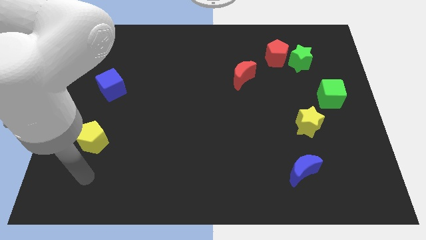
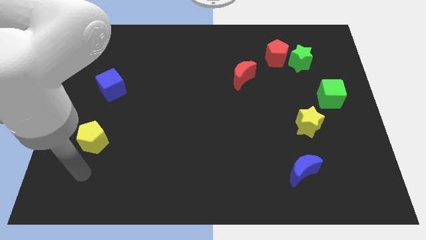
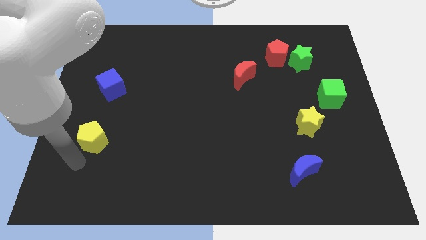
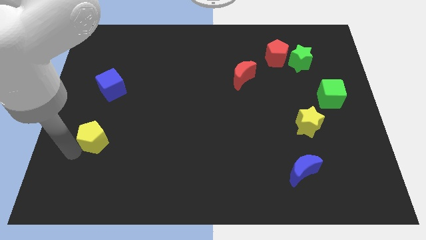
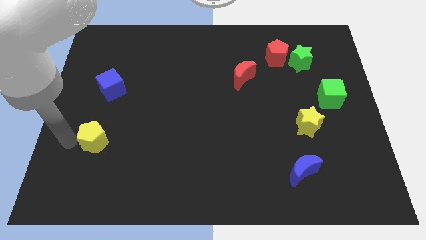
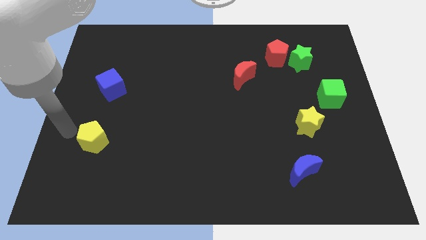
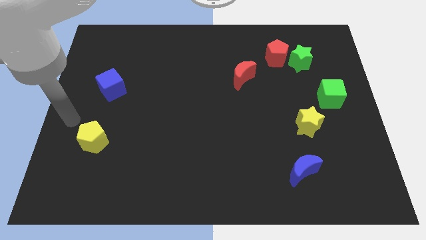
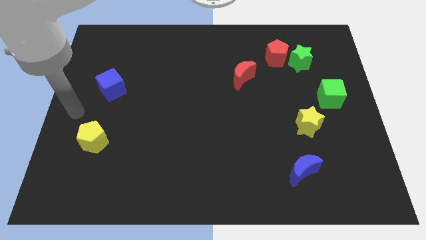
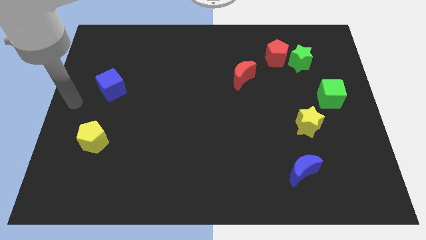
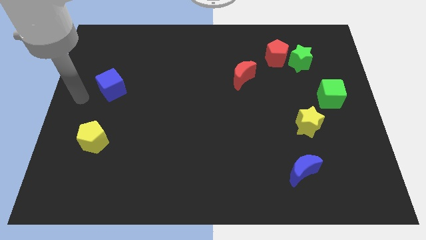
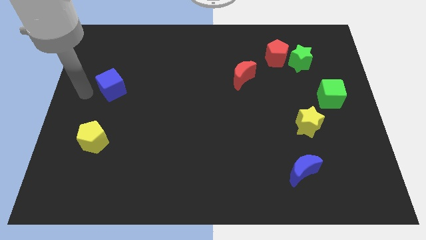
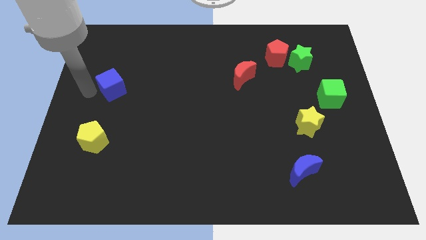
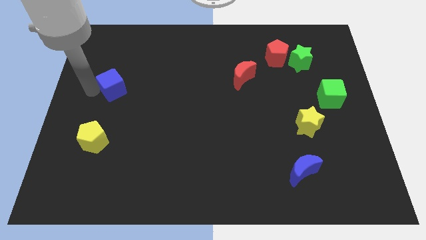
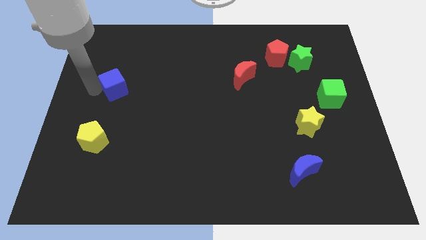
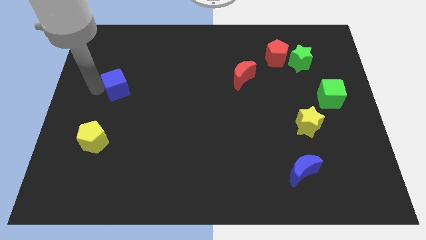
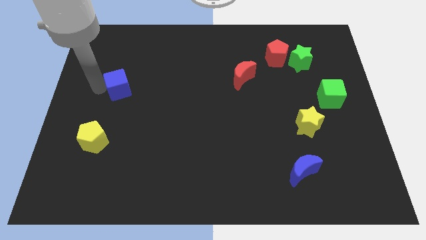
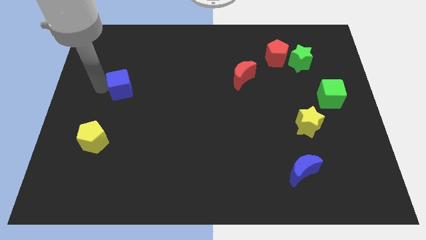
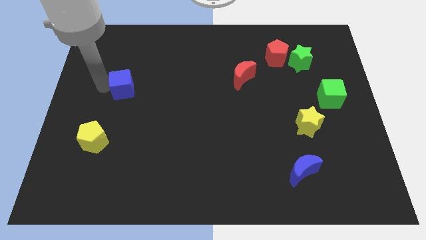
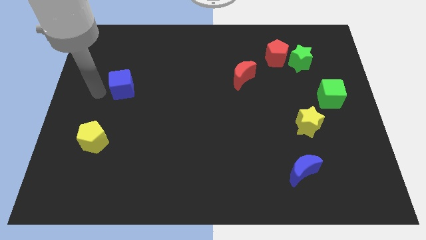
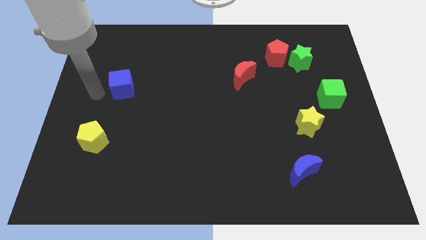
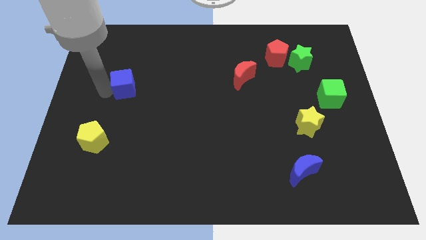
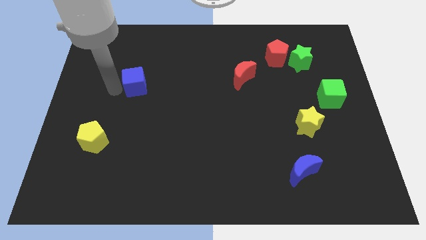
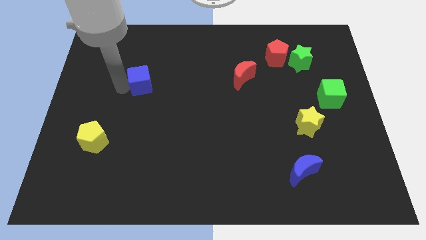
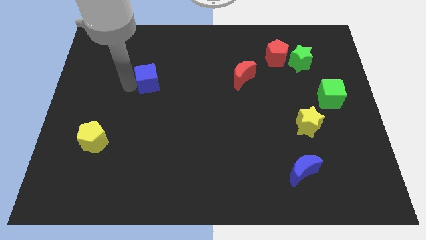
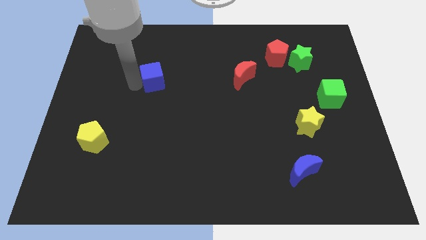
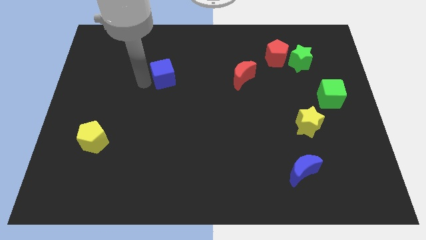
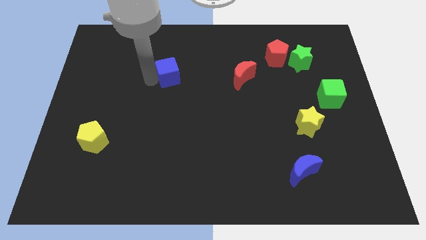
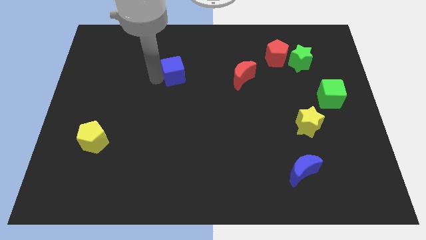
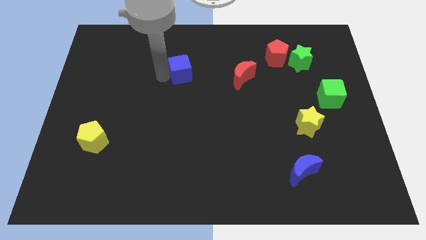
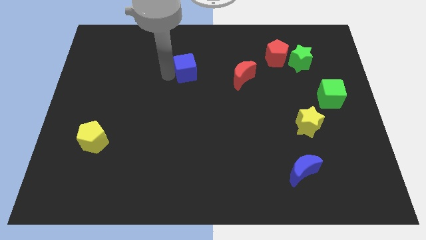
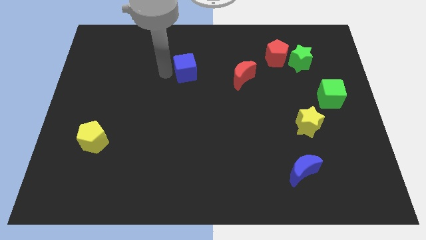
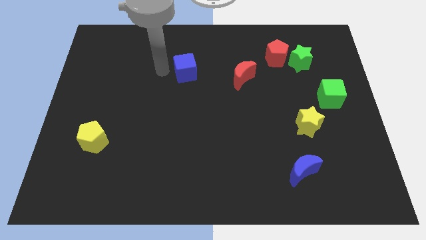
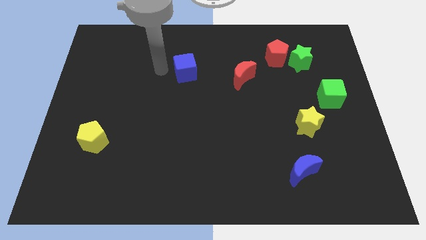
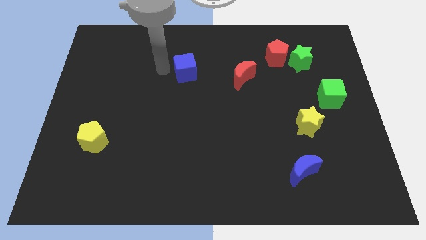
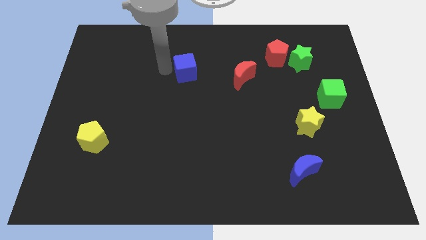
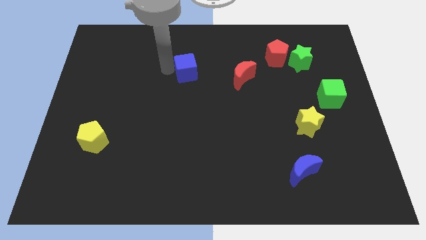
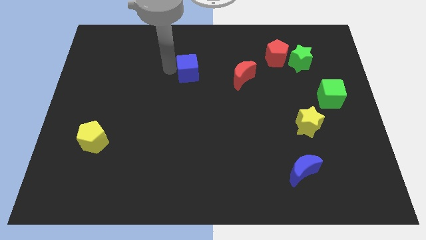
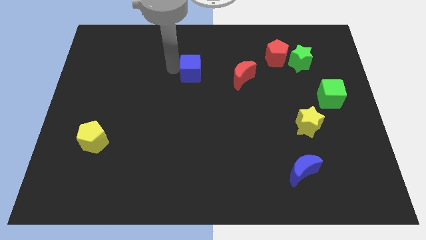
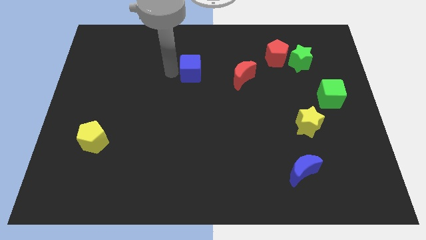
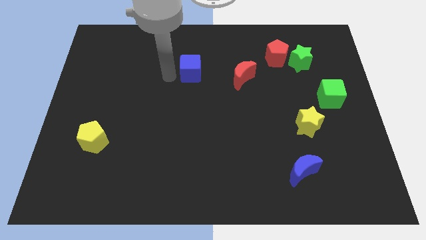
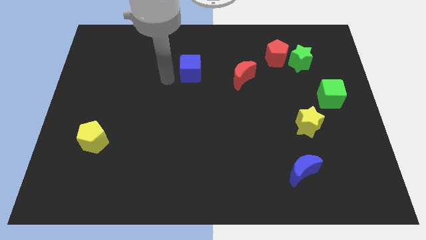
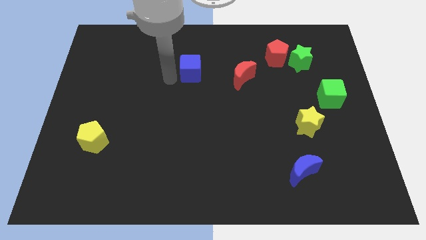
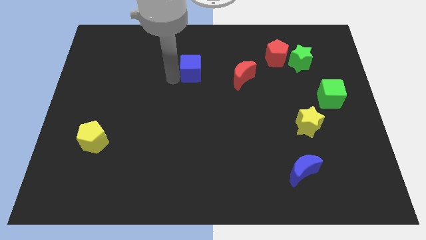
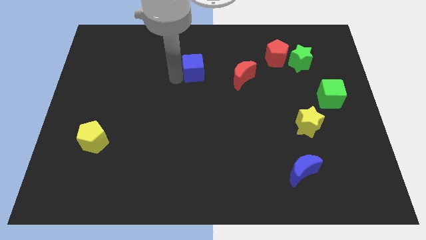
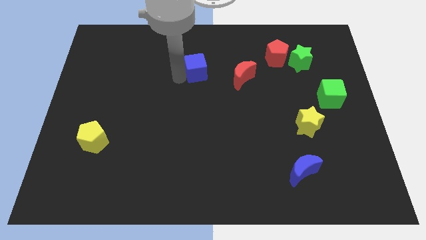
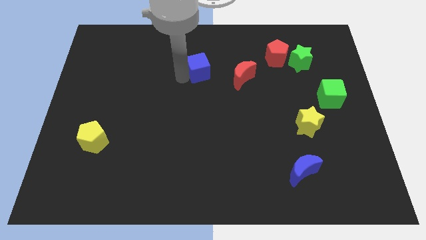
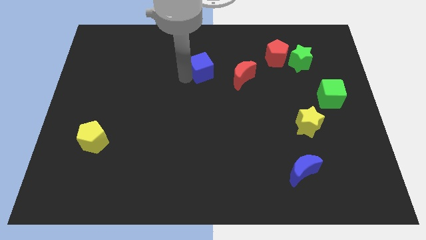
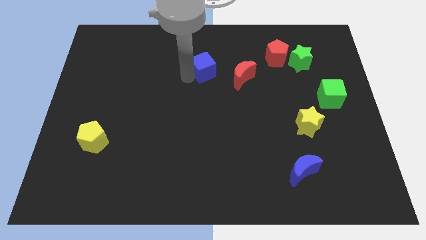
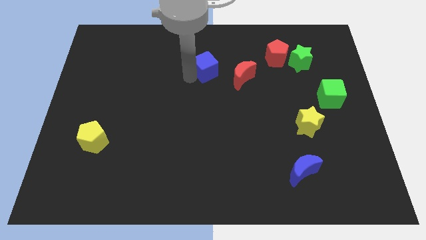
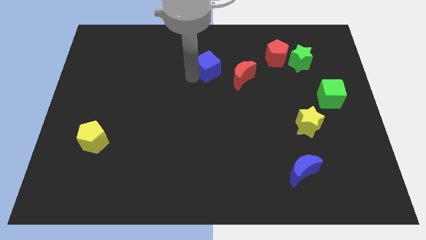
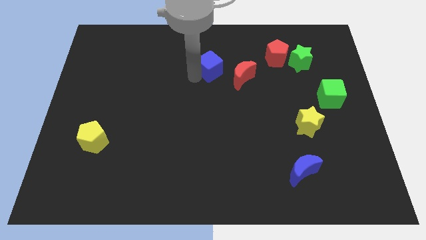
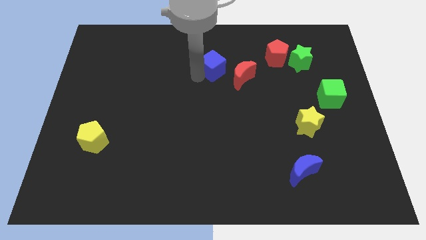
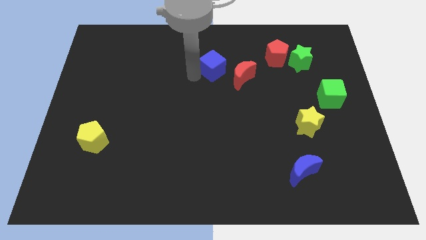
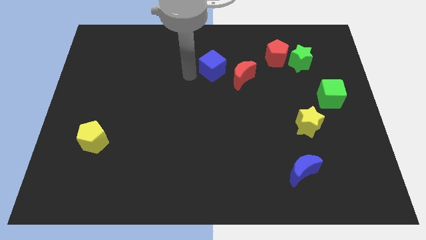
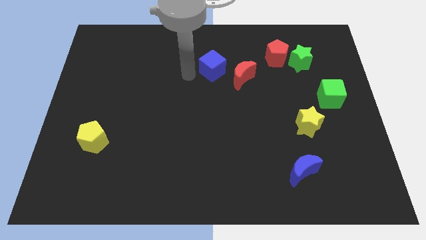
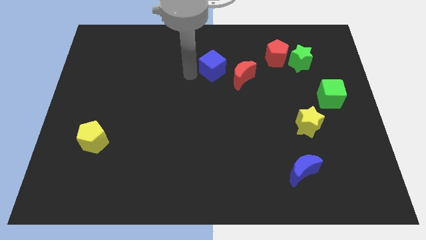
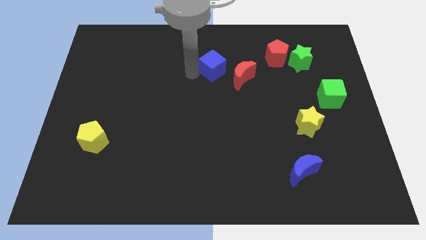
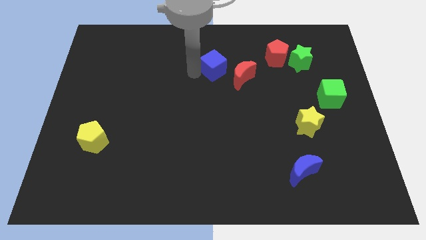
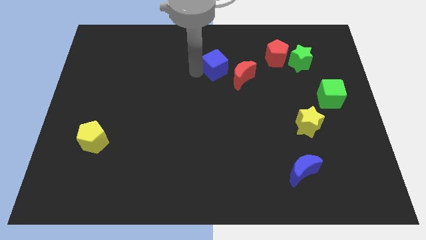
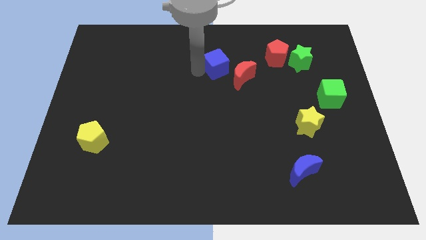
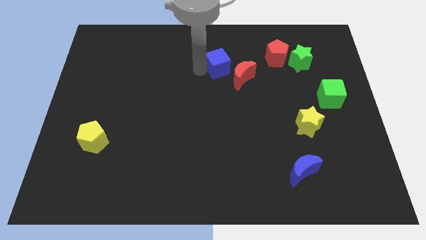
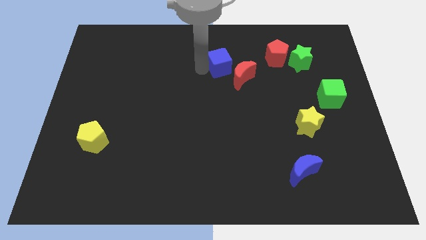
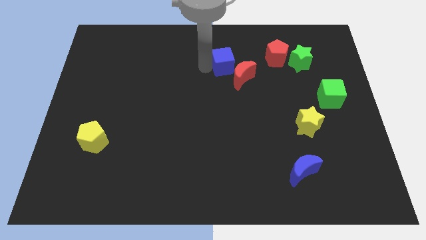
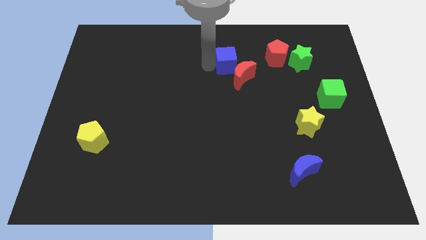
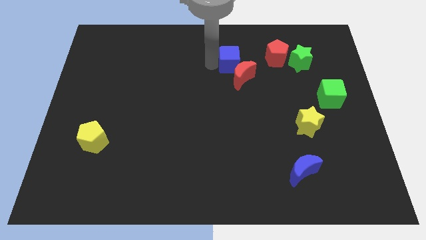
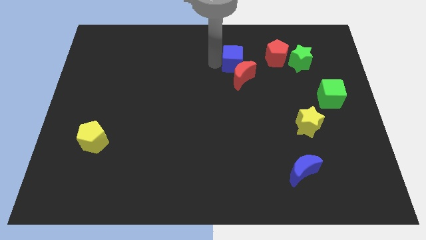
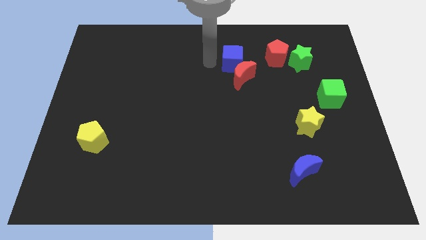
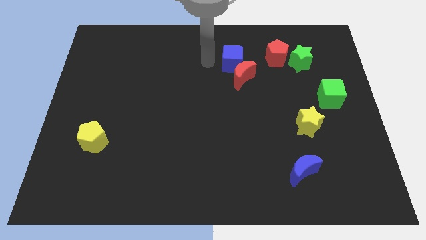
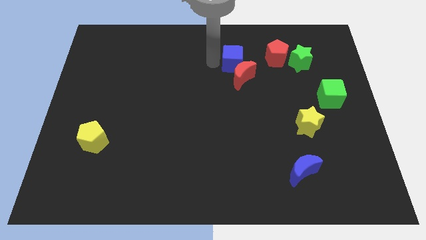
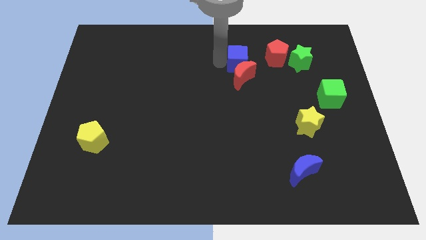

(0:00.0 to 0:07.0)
put the blue cube to the top right side of the red moon

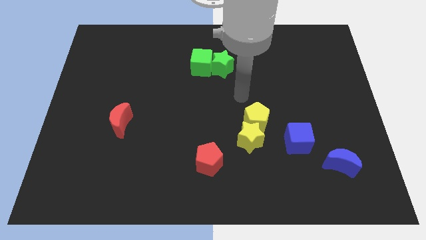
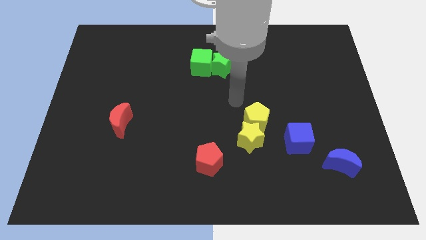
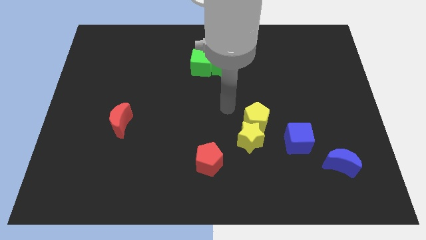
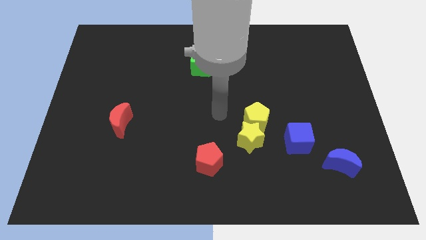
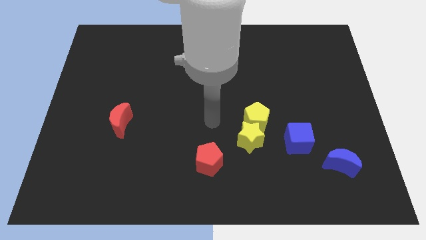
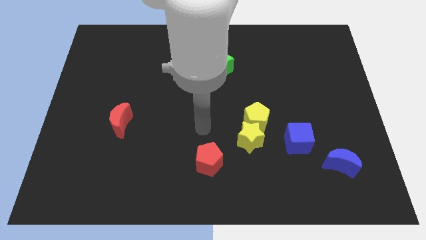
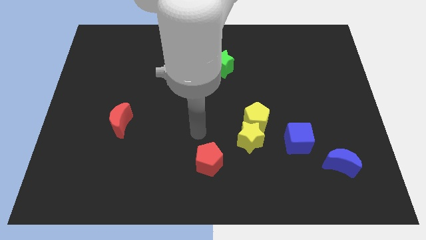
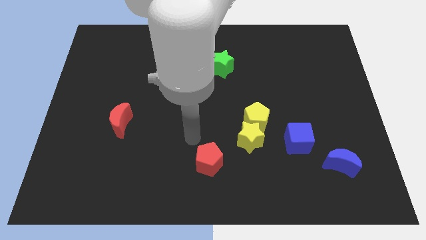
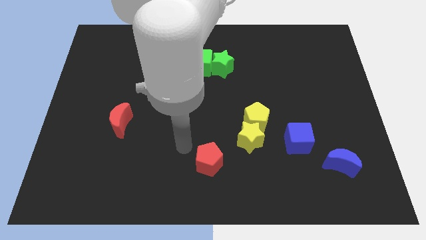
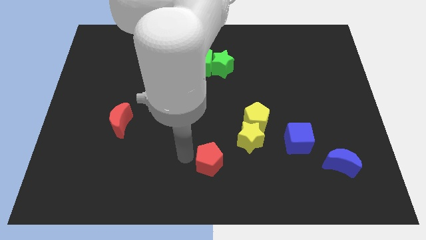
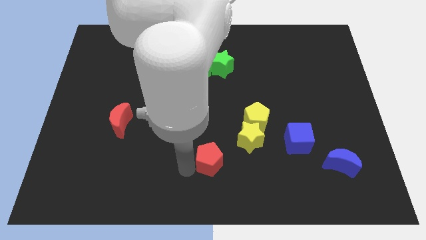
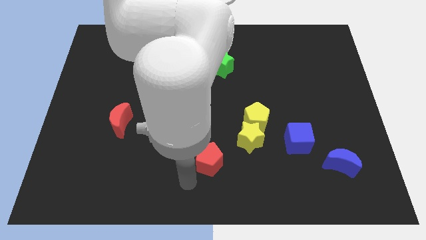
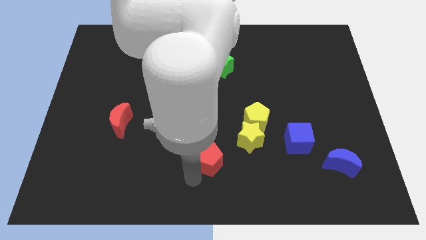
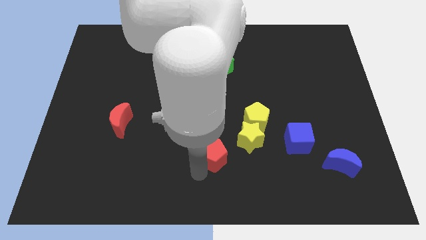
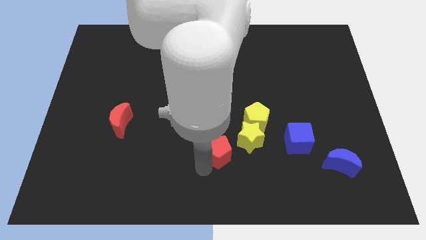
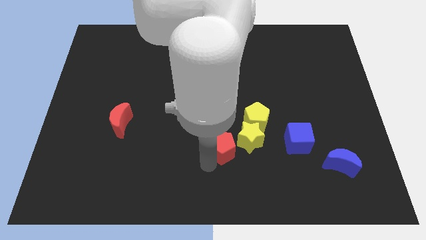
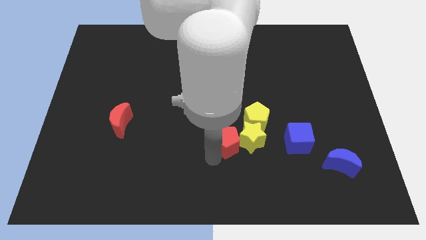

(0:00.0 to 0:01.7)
put the red pentagon to the left side of the blue cube
